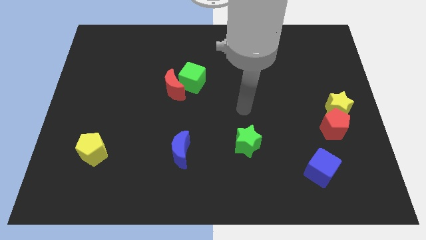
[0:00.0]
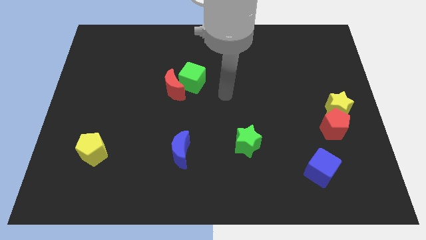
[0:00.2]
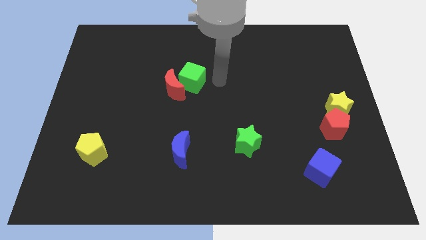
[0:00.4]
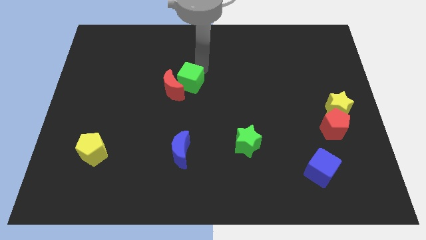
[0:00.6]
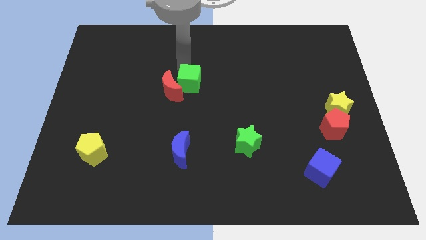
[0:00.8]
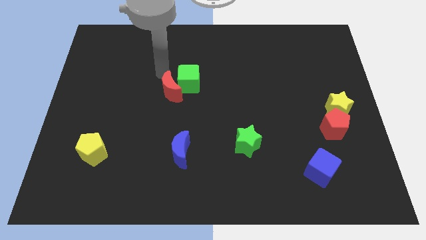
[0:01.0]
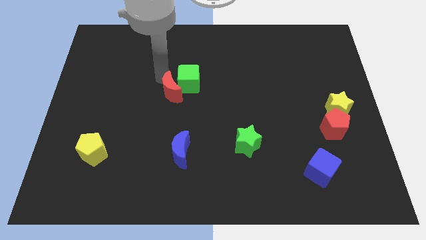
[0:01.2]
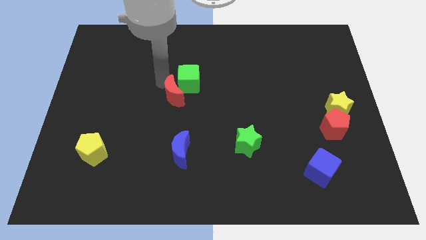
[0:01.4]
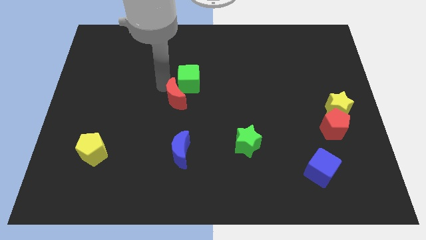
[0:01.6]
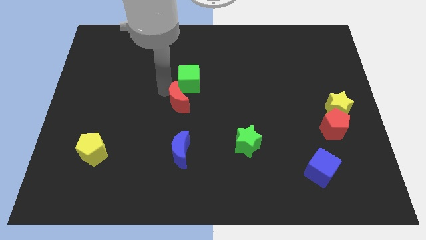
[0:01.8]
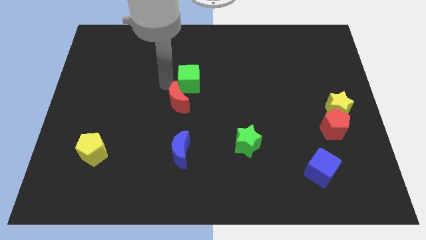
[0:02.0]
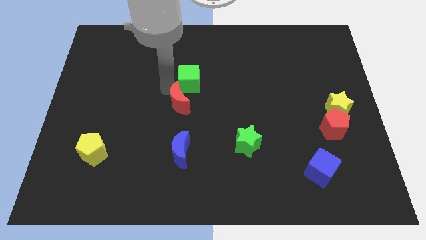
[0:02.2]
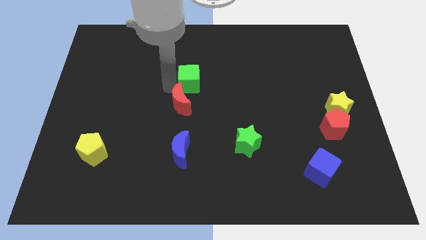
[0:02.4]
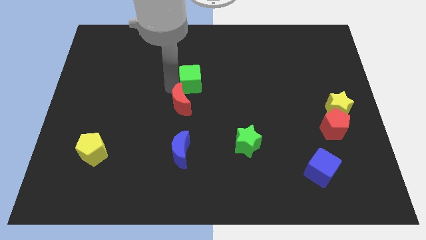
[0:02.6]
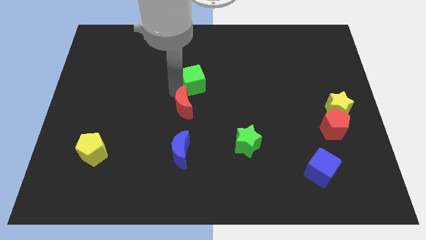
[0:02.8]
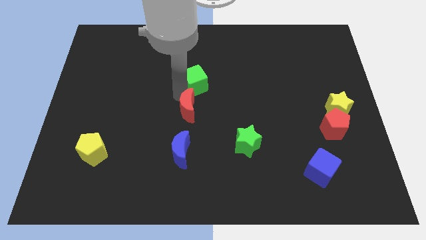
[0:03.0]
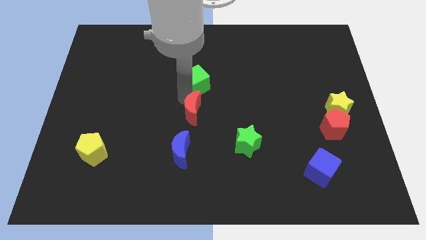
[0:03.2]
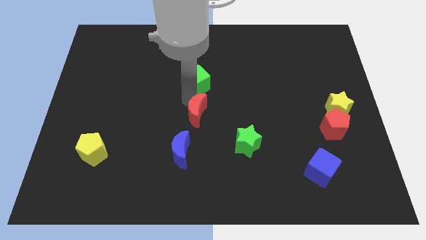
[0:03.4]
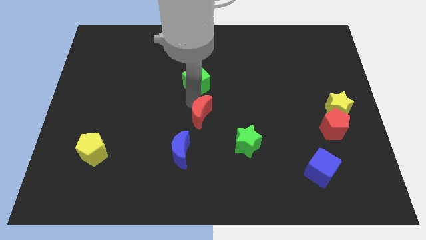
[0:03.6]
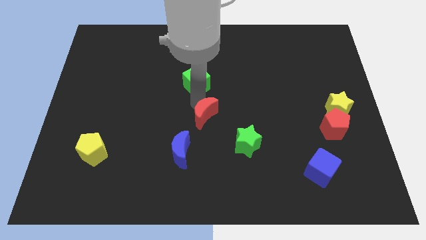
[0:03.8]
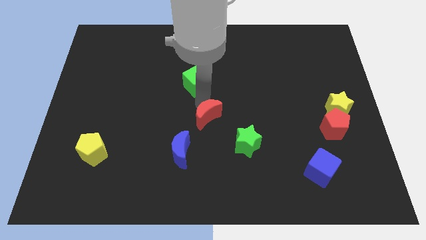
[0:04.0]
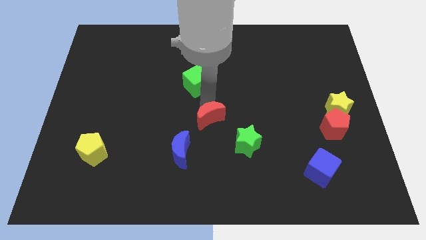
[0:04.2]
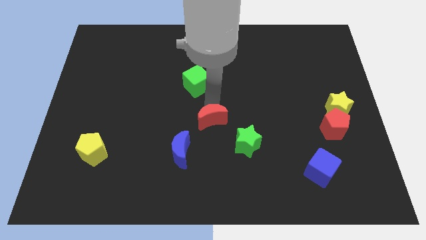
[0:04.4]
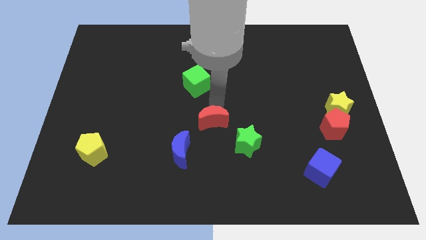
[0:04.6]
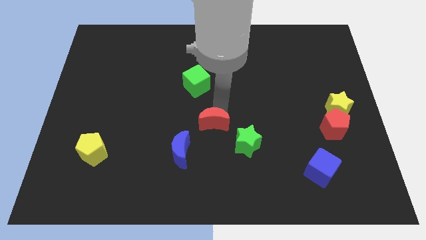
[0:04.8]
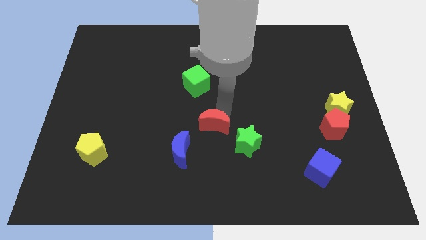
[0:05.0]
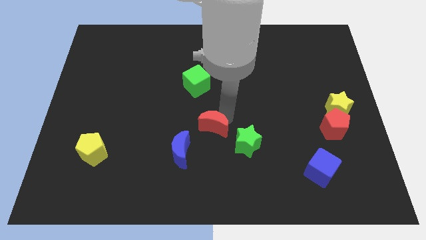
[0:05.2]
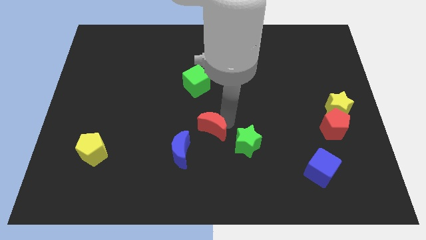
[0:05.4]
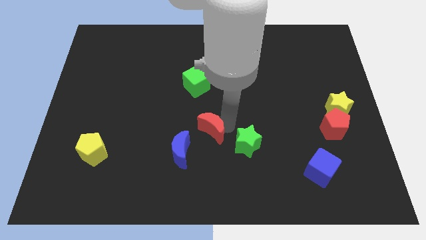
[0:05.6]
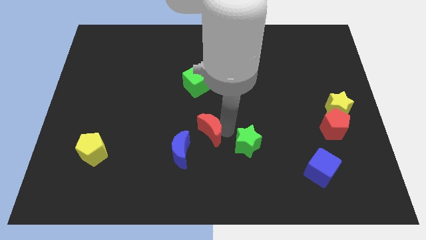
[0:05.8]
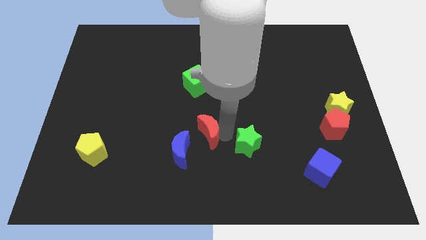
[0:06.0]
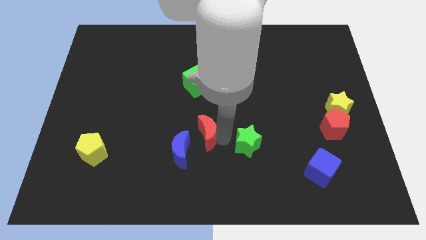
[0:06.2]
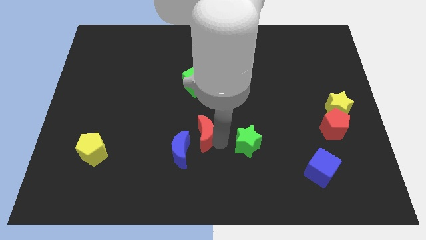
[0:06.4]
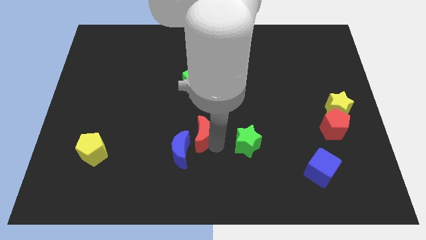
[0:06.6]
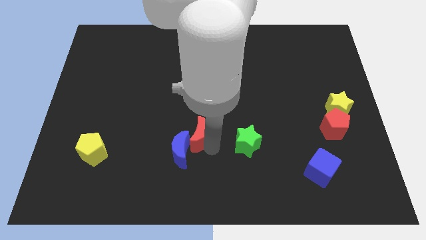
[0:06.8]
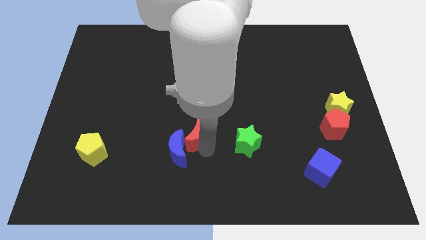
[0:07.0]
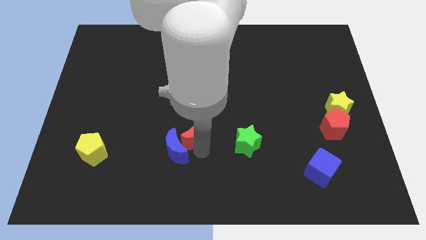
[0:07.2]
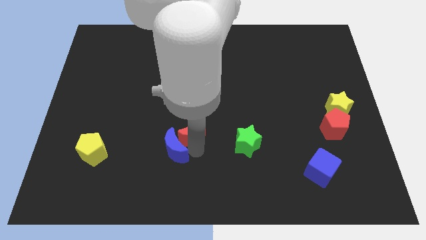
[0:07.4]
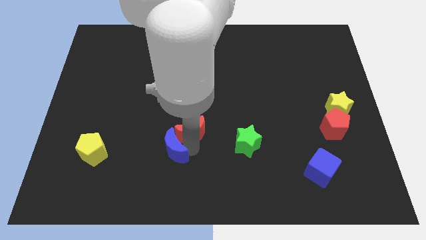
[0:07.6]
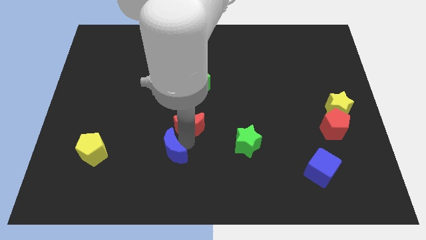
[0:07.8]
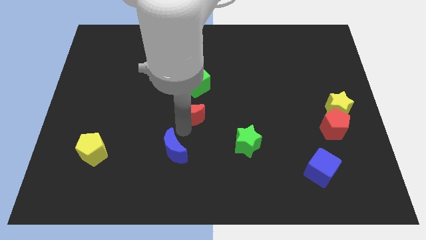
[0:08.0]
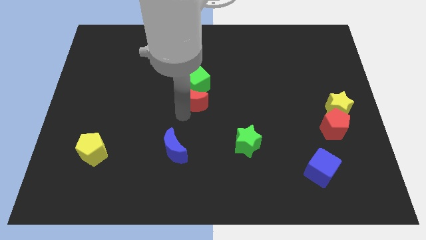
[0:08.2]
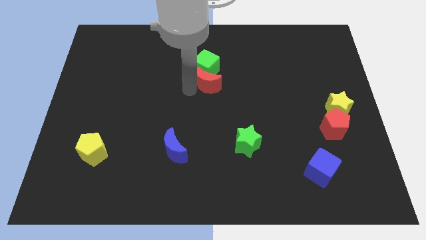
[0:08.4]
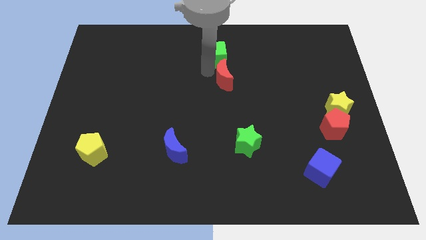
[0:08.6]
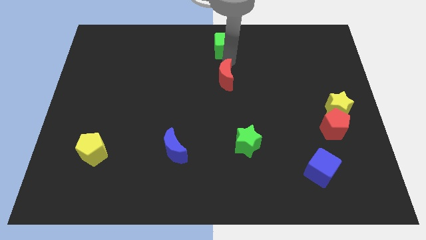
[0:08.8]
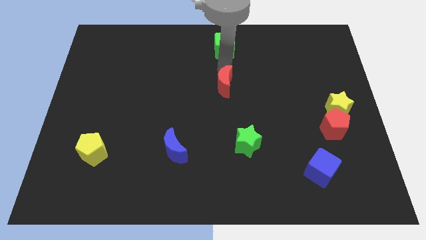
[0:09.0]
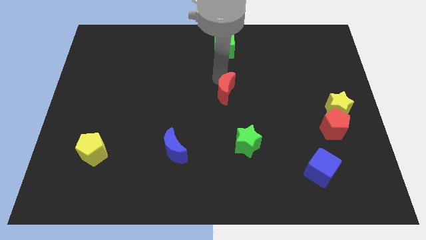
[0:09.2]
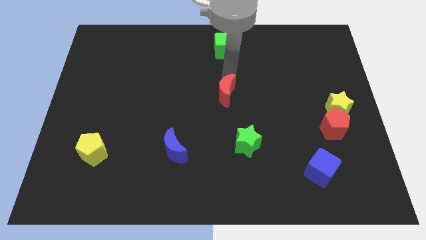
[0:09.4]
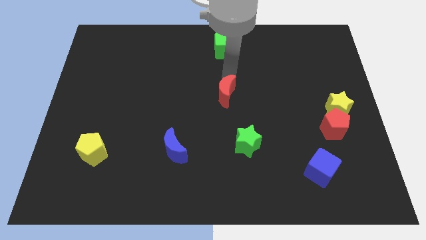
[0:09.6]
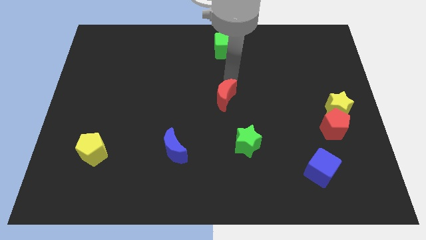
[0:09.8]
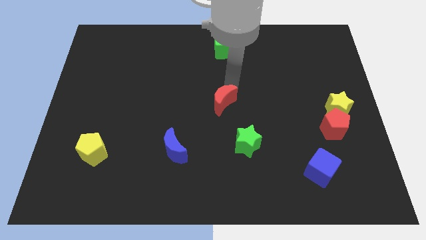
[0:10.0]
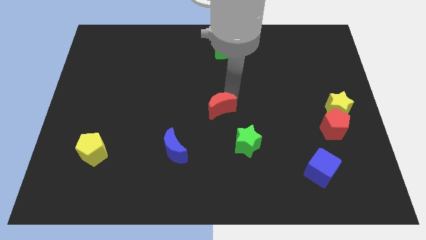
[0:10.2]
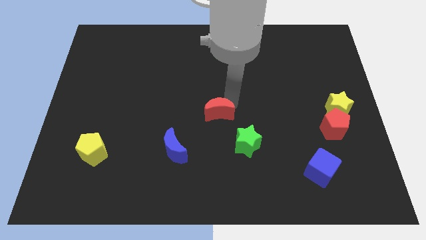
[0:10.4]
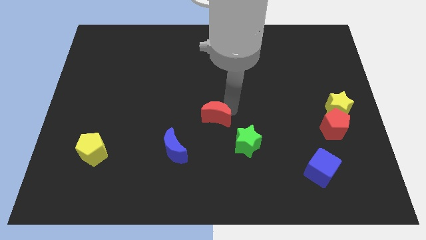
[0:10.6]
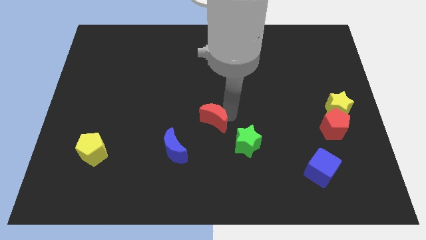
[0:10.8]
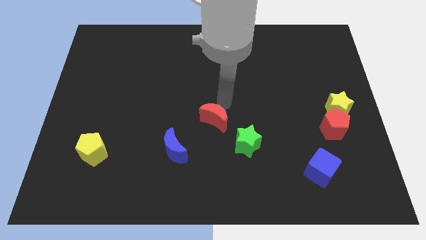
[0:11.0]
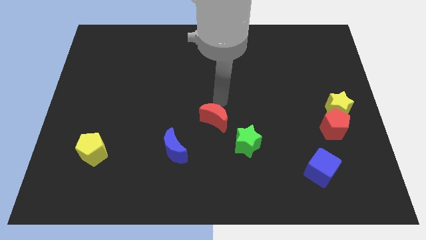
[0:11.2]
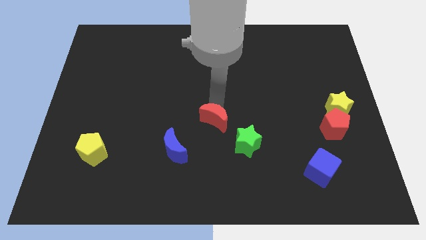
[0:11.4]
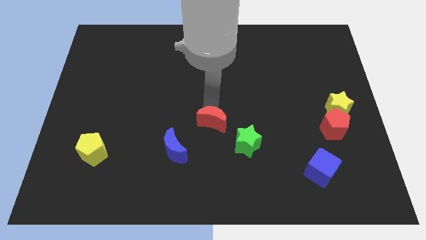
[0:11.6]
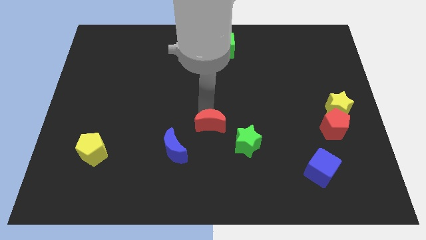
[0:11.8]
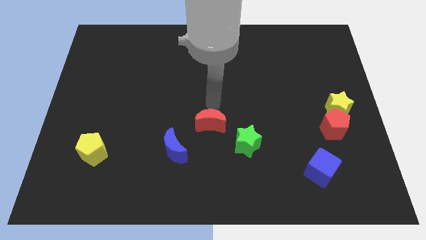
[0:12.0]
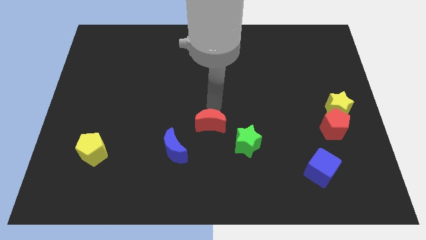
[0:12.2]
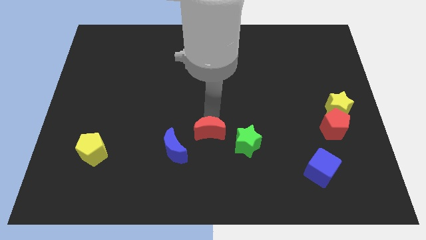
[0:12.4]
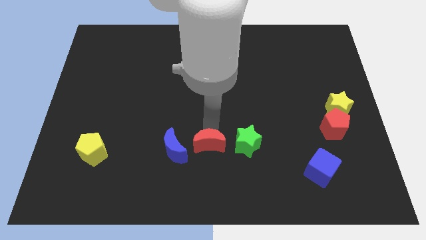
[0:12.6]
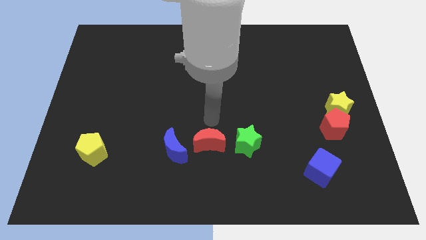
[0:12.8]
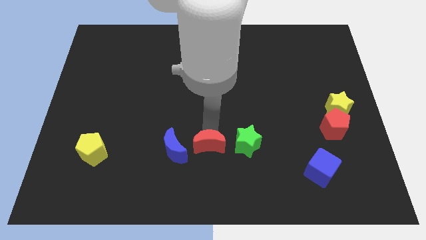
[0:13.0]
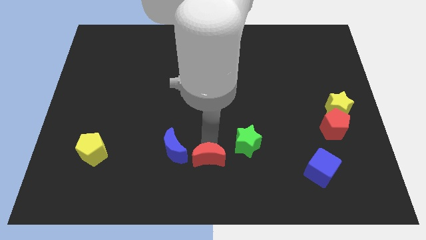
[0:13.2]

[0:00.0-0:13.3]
slide the red moon to the bottom
